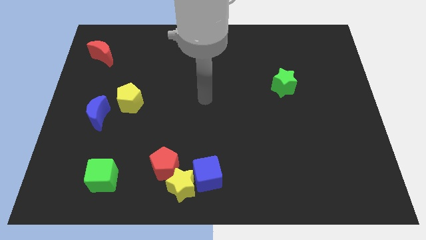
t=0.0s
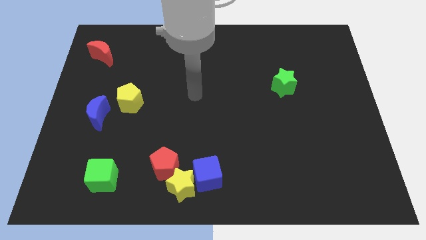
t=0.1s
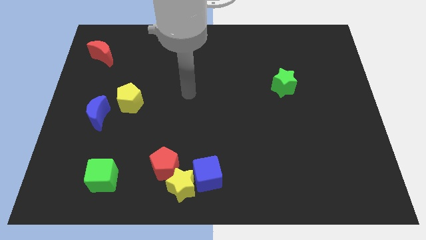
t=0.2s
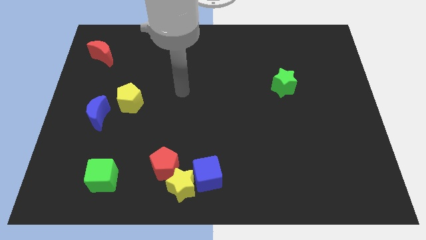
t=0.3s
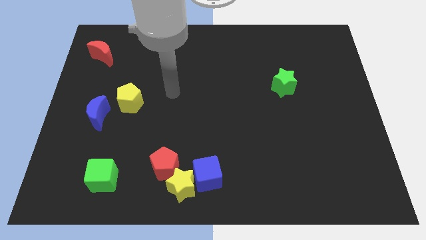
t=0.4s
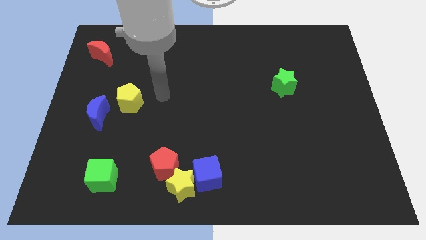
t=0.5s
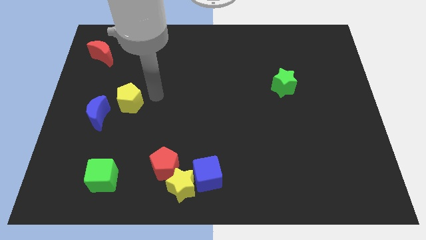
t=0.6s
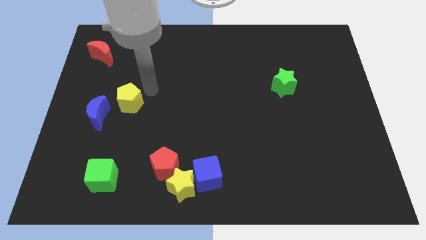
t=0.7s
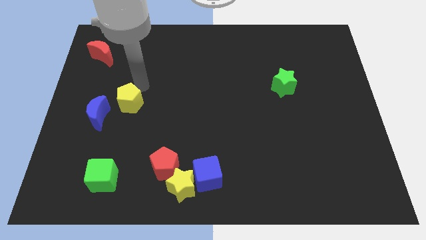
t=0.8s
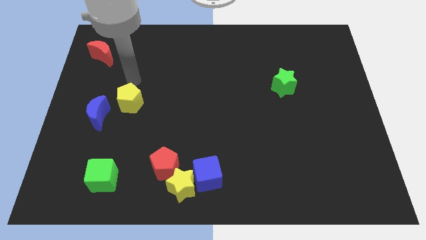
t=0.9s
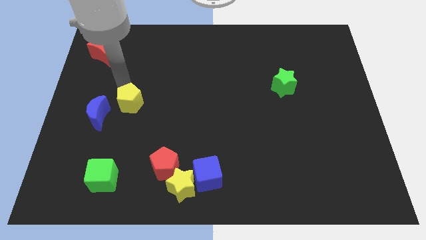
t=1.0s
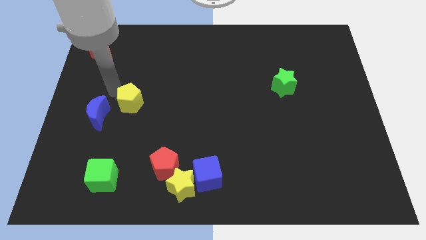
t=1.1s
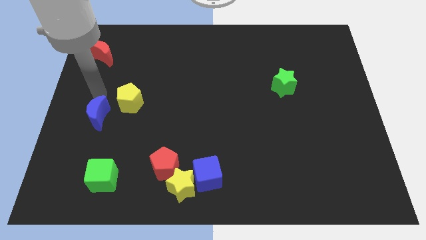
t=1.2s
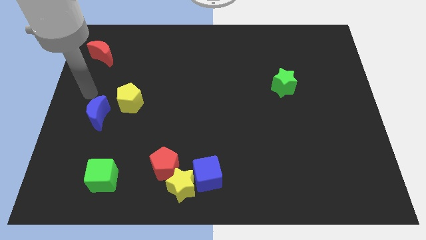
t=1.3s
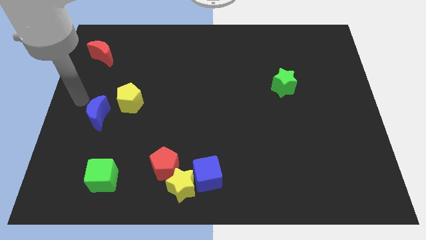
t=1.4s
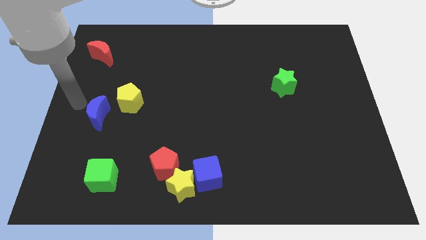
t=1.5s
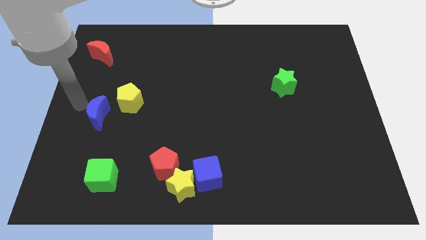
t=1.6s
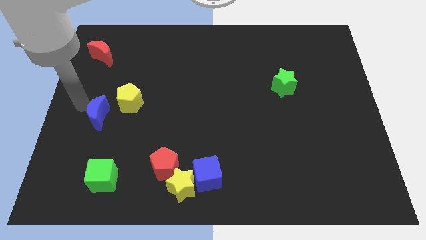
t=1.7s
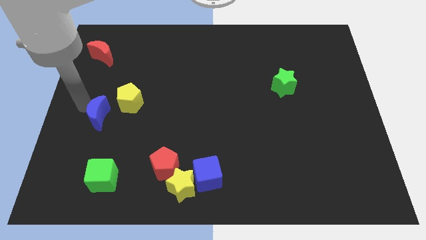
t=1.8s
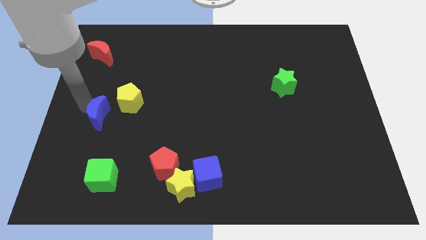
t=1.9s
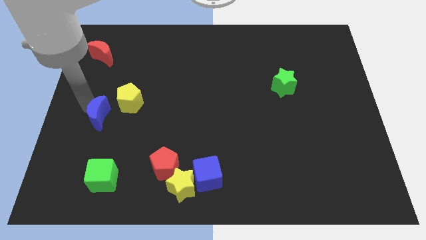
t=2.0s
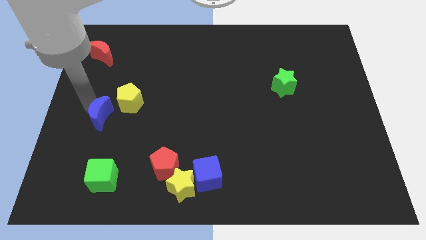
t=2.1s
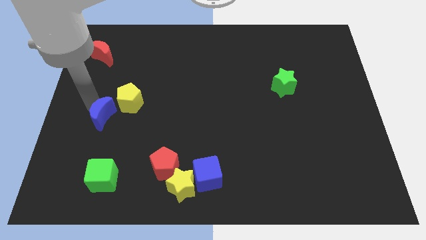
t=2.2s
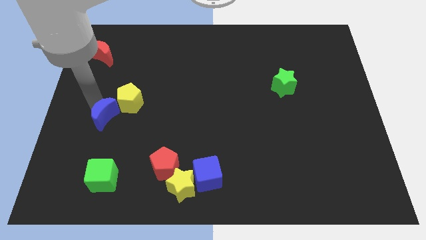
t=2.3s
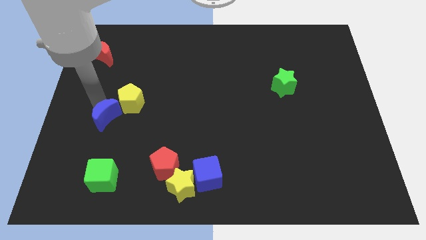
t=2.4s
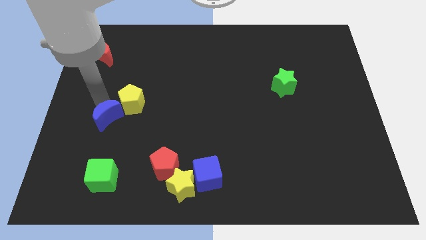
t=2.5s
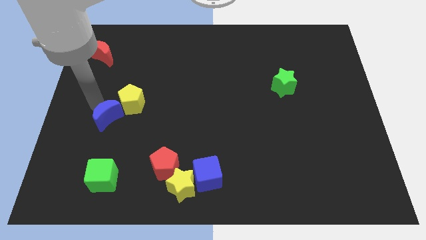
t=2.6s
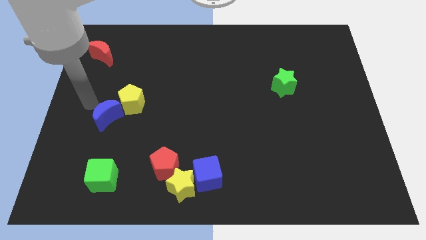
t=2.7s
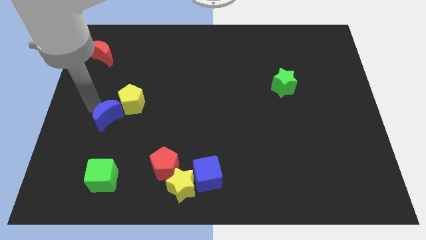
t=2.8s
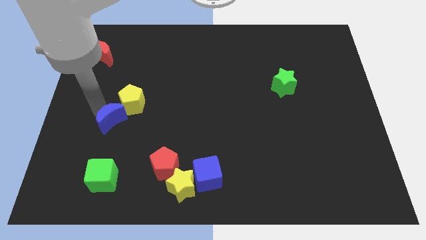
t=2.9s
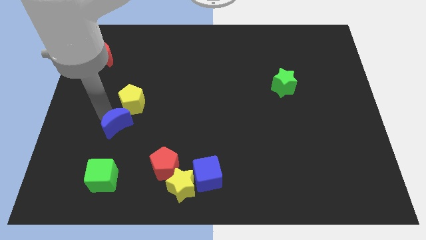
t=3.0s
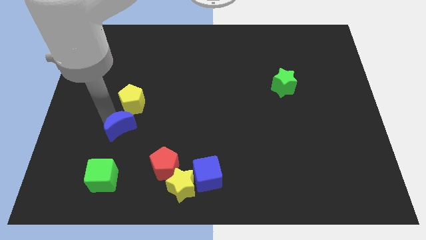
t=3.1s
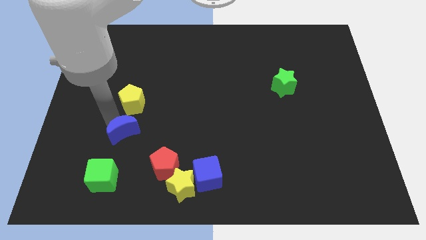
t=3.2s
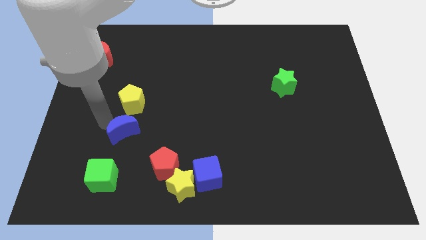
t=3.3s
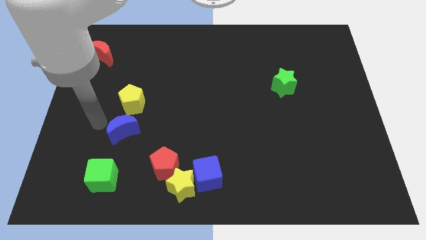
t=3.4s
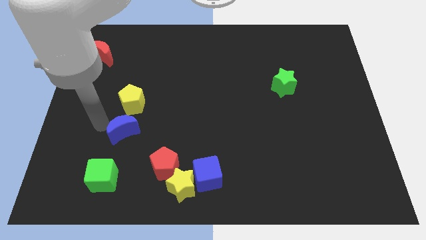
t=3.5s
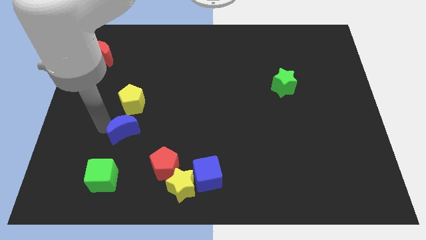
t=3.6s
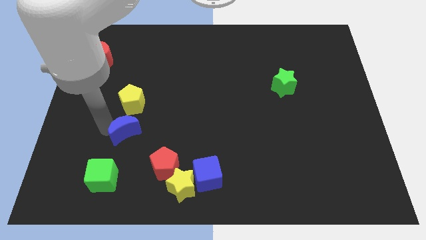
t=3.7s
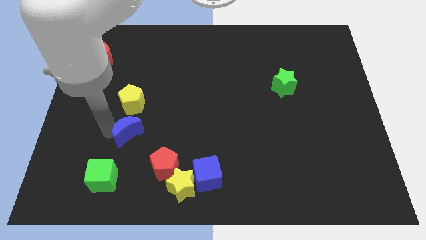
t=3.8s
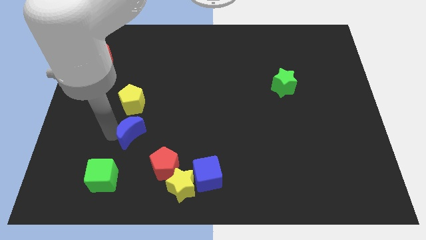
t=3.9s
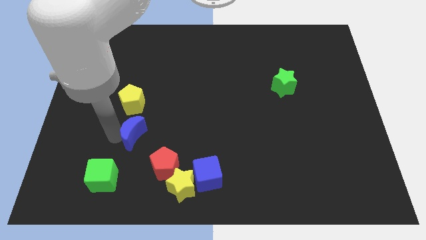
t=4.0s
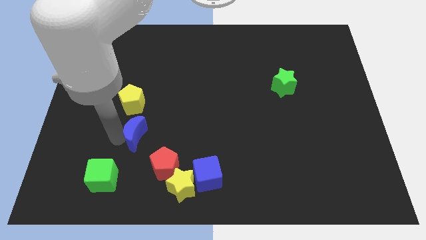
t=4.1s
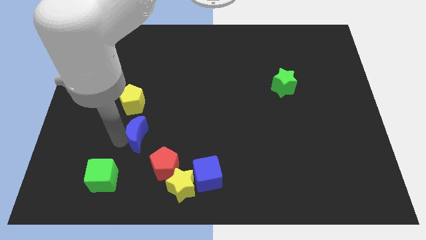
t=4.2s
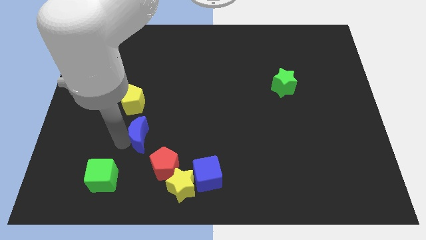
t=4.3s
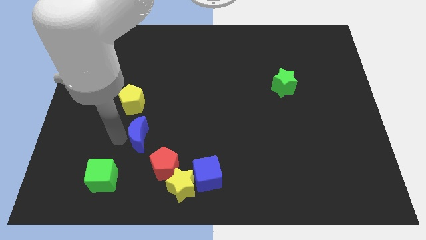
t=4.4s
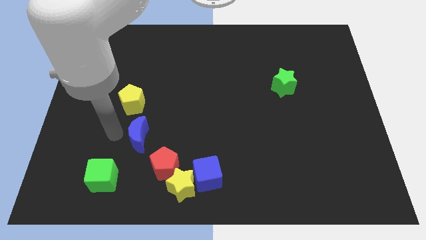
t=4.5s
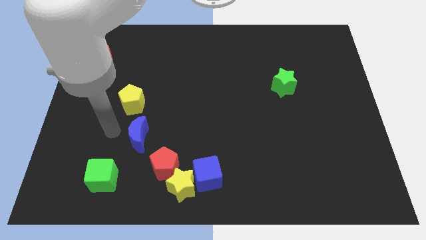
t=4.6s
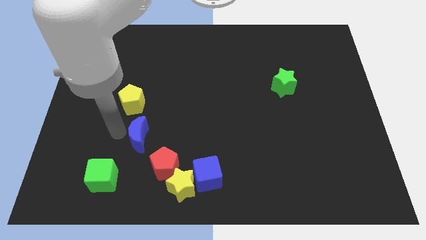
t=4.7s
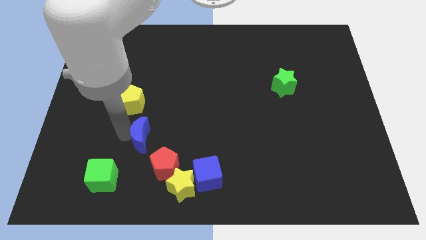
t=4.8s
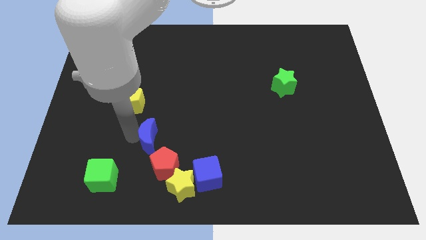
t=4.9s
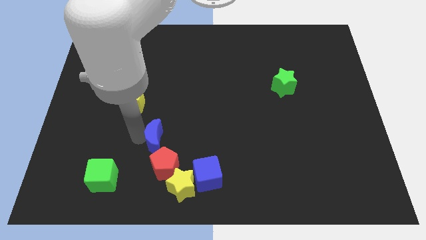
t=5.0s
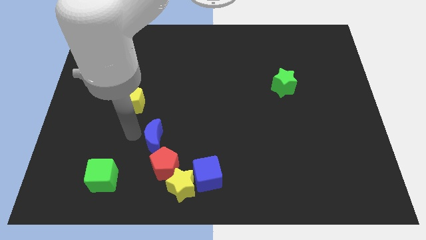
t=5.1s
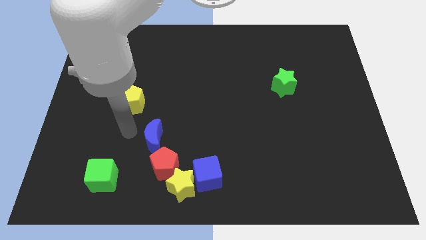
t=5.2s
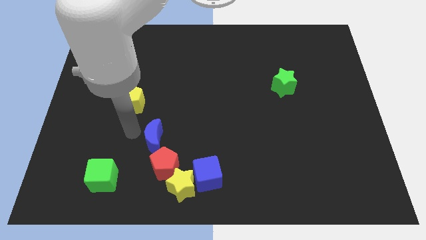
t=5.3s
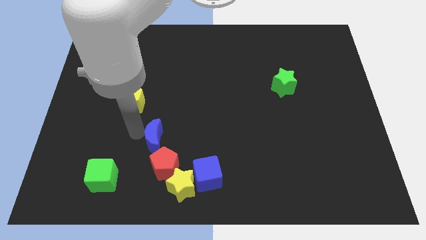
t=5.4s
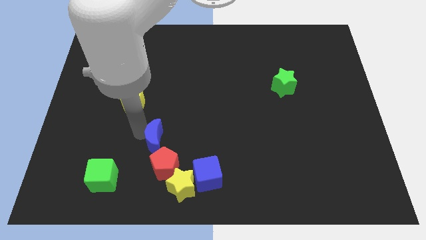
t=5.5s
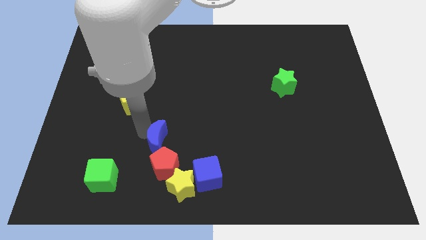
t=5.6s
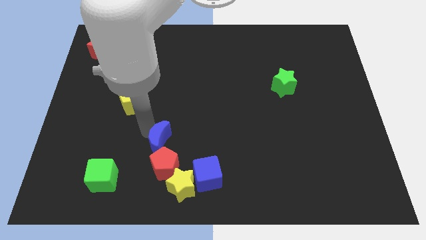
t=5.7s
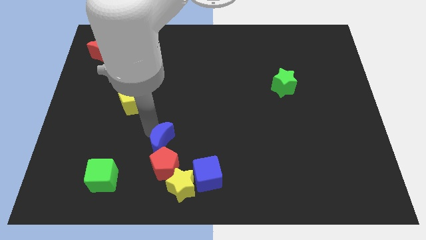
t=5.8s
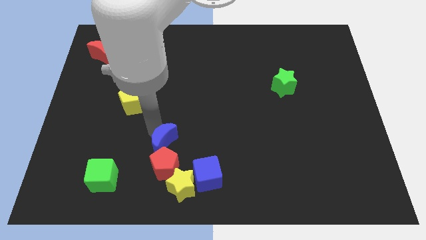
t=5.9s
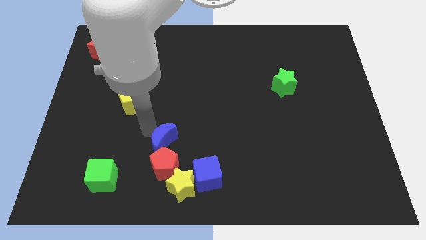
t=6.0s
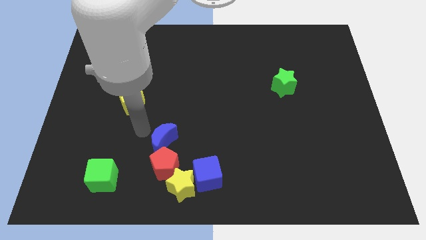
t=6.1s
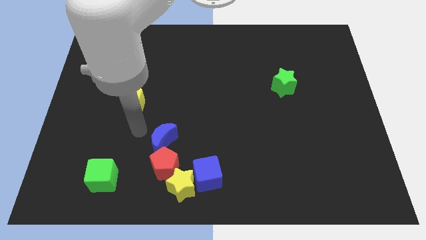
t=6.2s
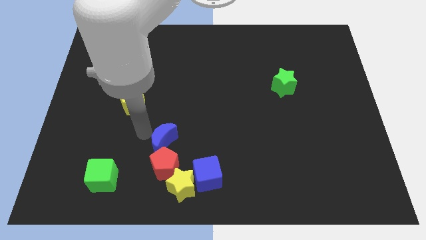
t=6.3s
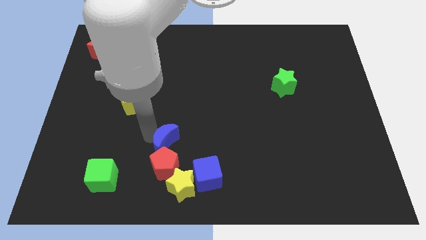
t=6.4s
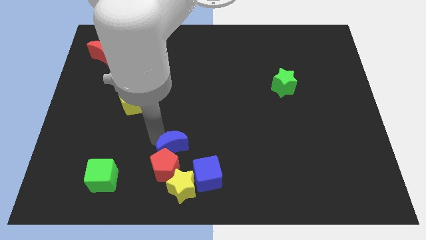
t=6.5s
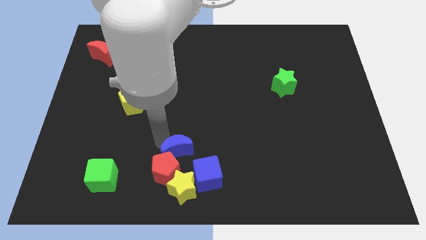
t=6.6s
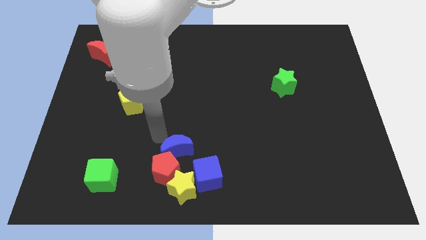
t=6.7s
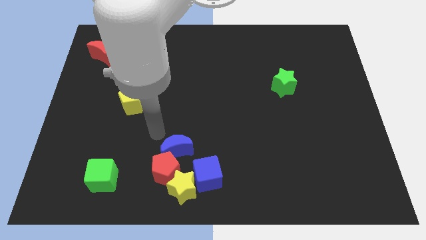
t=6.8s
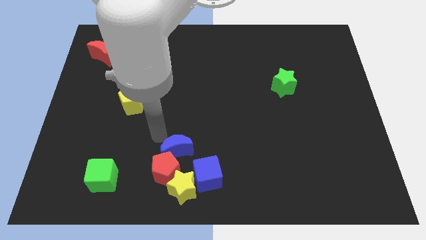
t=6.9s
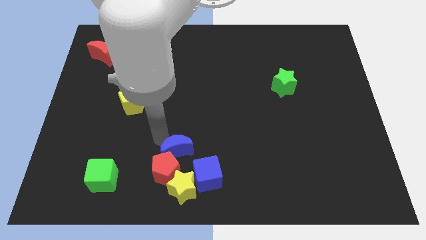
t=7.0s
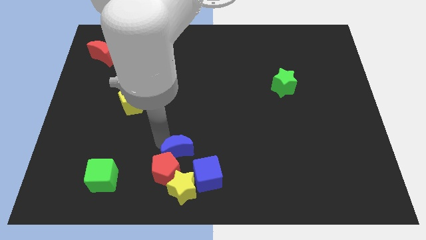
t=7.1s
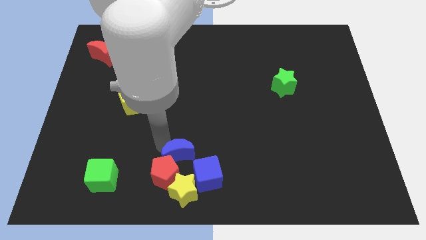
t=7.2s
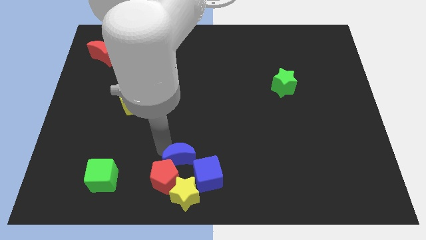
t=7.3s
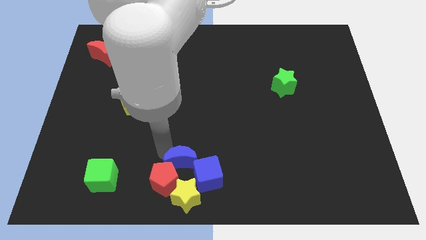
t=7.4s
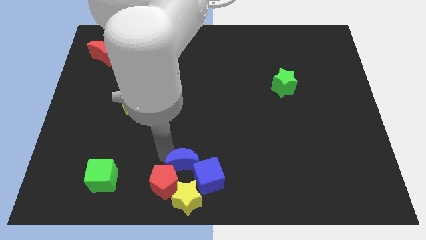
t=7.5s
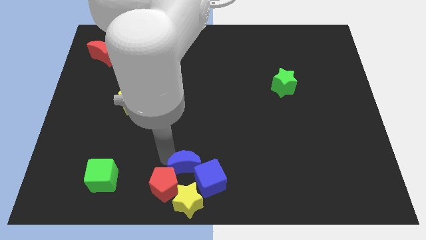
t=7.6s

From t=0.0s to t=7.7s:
put the blue moon close to the blue cube
